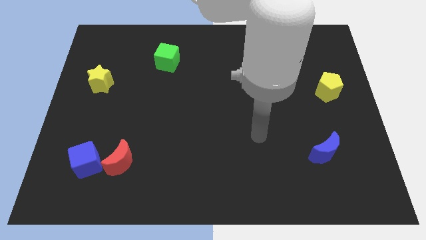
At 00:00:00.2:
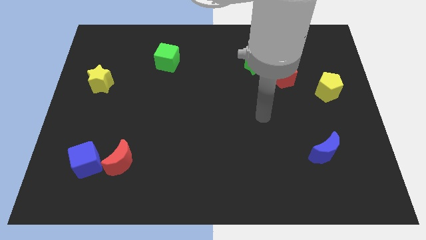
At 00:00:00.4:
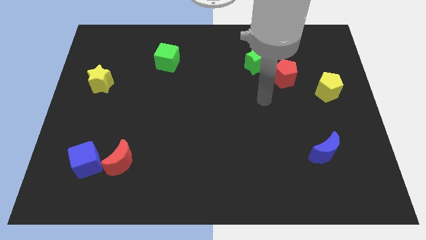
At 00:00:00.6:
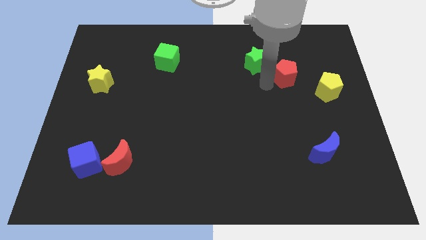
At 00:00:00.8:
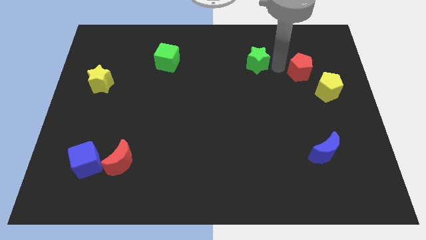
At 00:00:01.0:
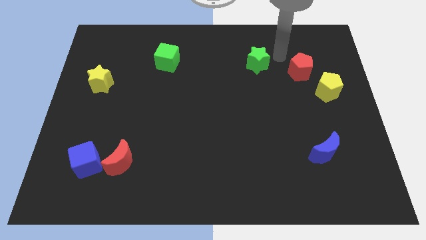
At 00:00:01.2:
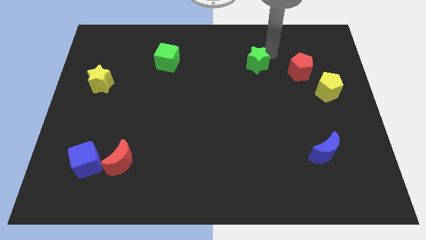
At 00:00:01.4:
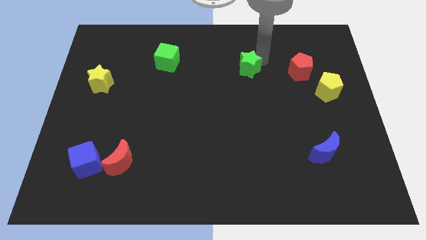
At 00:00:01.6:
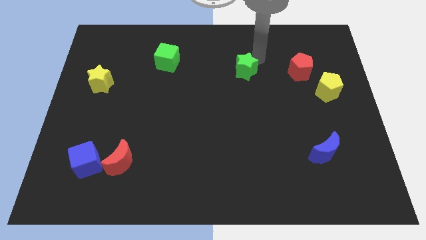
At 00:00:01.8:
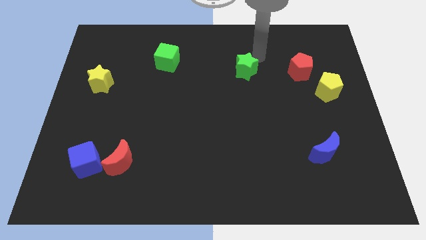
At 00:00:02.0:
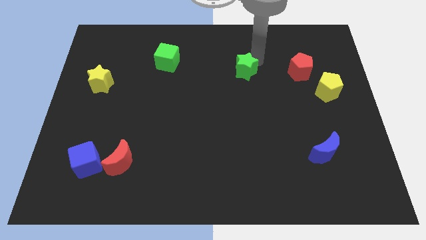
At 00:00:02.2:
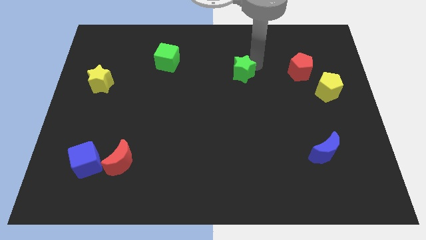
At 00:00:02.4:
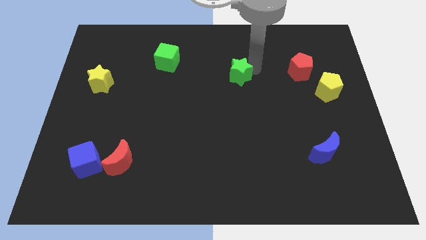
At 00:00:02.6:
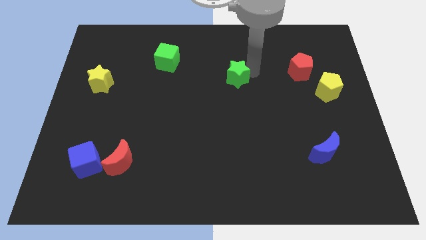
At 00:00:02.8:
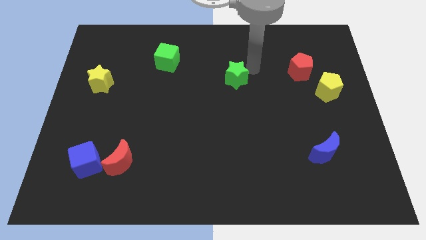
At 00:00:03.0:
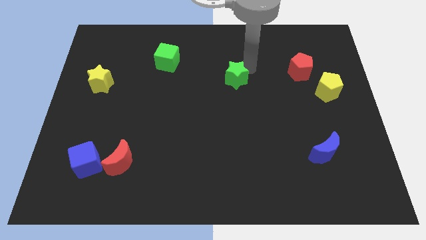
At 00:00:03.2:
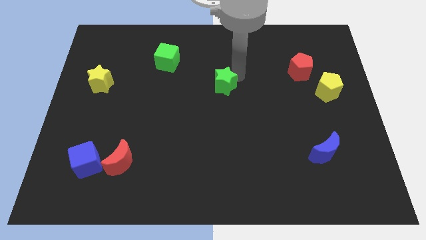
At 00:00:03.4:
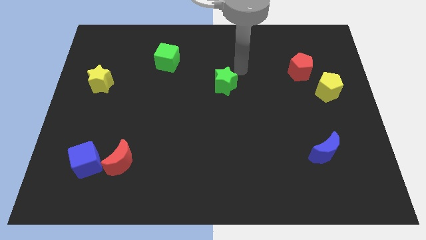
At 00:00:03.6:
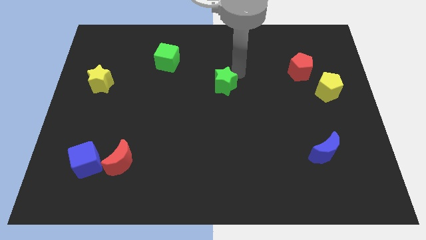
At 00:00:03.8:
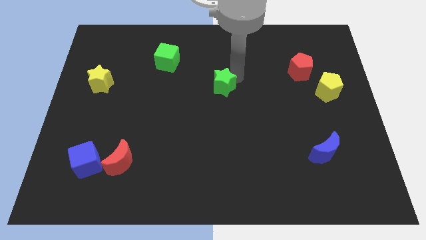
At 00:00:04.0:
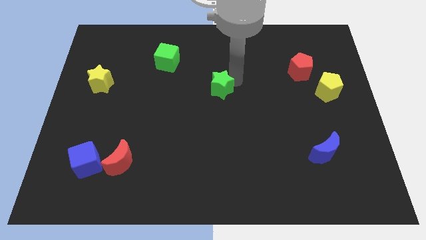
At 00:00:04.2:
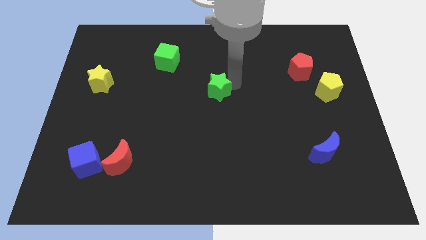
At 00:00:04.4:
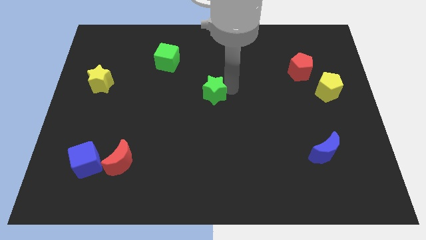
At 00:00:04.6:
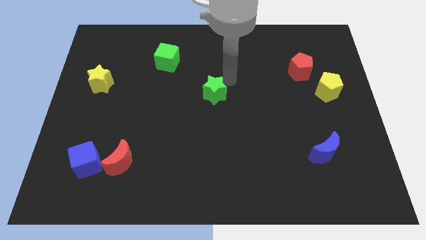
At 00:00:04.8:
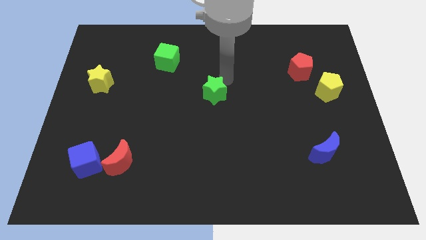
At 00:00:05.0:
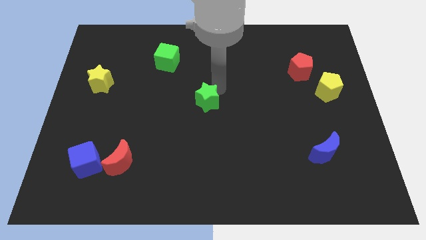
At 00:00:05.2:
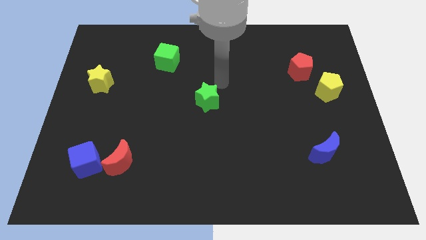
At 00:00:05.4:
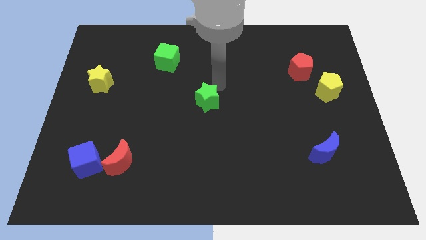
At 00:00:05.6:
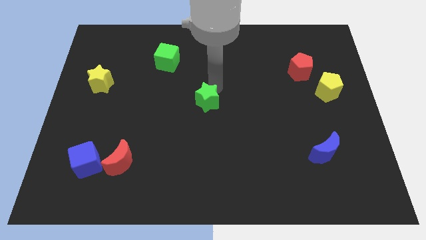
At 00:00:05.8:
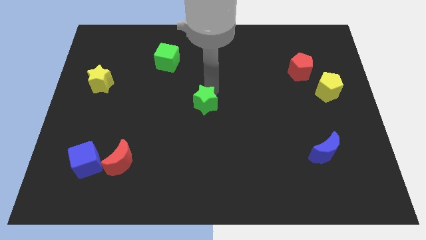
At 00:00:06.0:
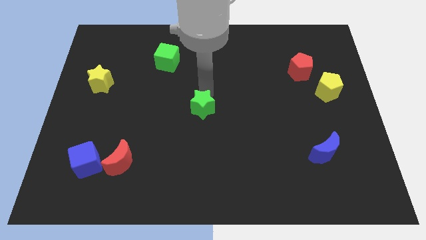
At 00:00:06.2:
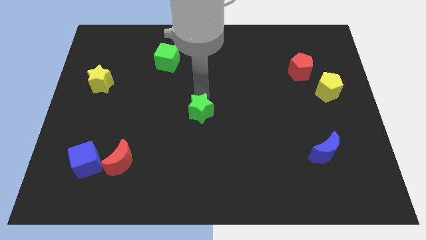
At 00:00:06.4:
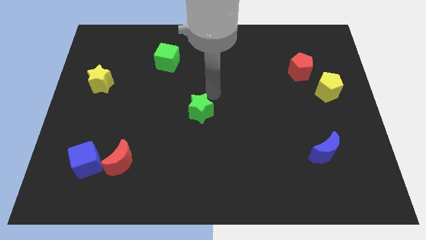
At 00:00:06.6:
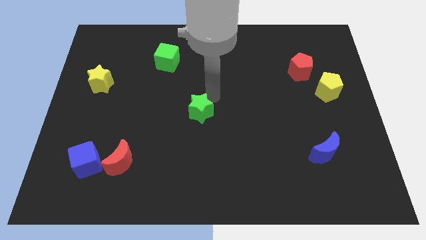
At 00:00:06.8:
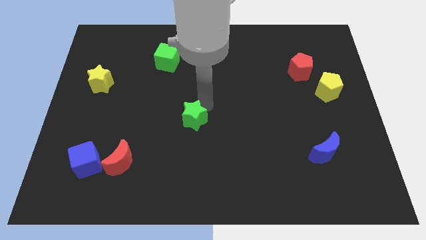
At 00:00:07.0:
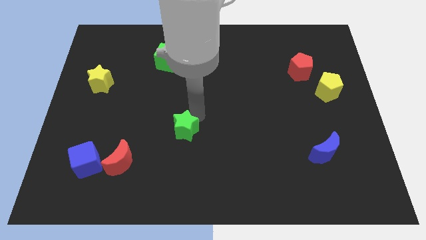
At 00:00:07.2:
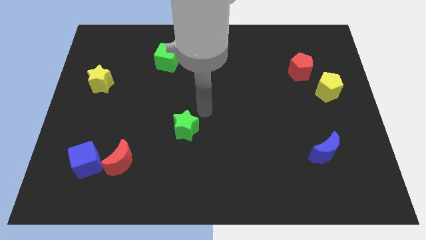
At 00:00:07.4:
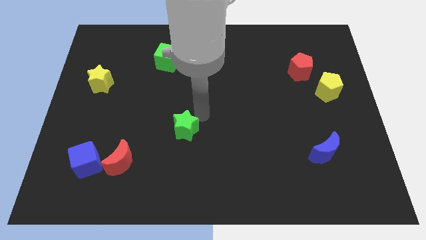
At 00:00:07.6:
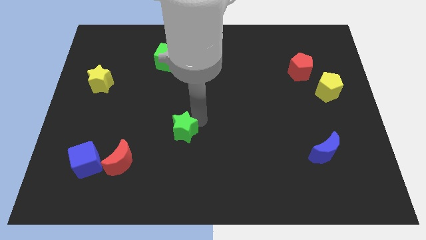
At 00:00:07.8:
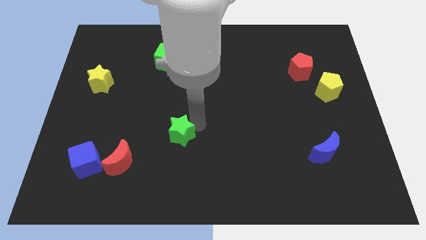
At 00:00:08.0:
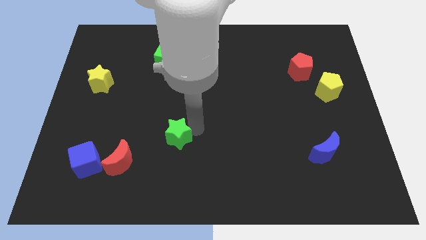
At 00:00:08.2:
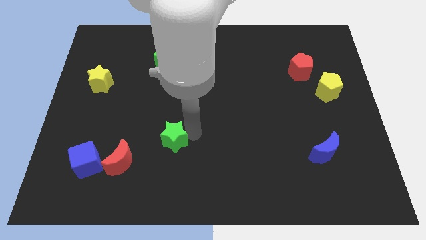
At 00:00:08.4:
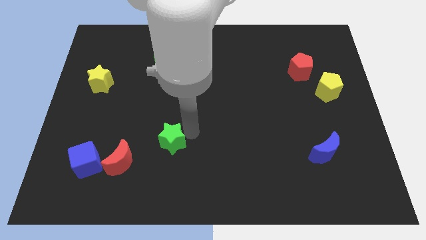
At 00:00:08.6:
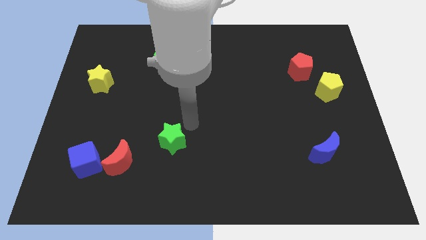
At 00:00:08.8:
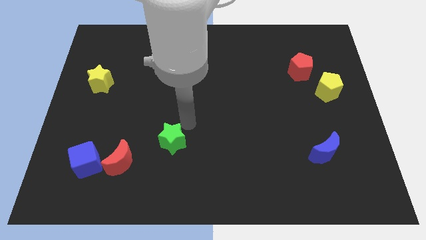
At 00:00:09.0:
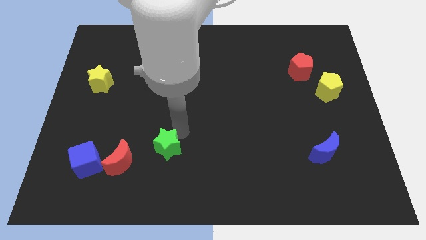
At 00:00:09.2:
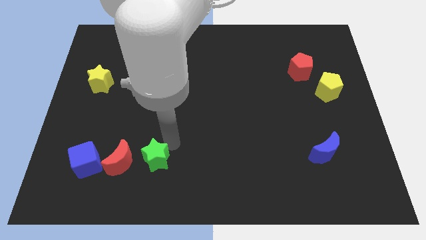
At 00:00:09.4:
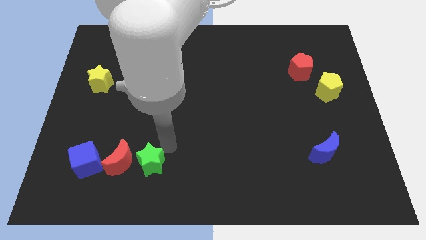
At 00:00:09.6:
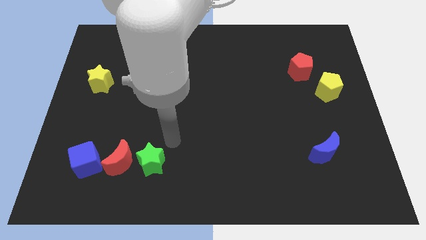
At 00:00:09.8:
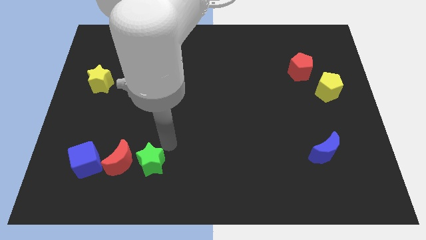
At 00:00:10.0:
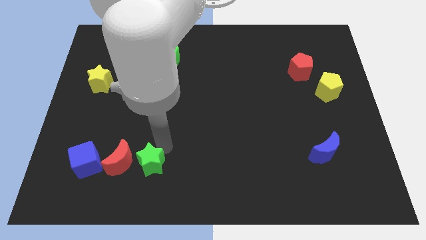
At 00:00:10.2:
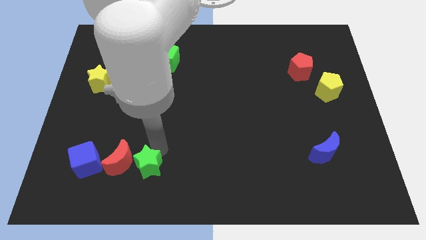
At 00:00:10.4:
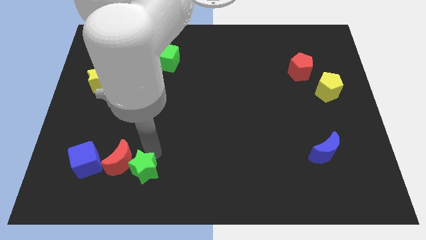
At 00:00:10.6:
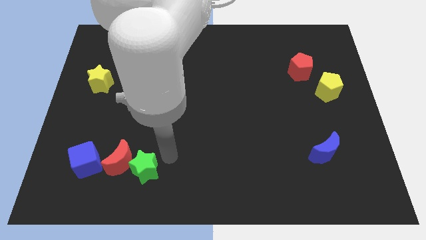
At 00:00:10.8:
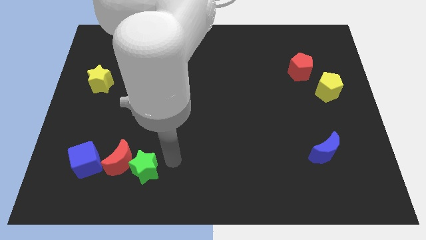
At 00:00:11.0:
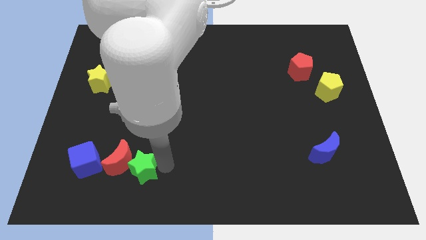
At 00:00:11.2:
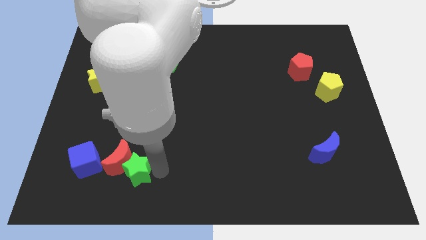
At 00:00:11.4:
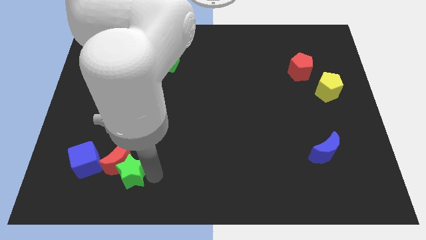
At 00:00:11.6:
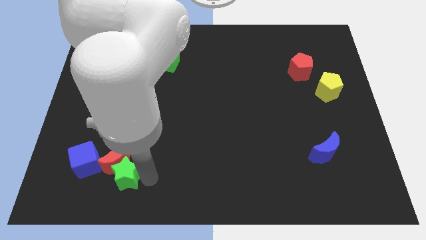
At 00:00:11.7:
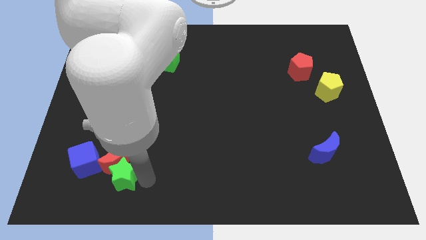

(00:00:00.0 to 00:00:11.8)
move the green star to the bottom left side of the red moon

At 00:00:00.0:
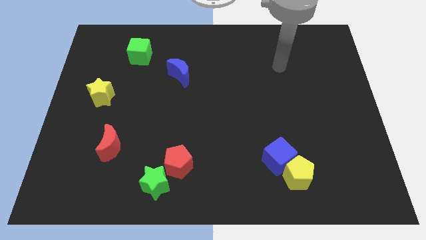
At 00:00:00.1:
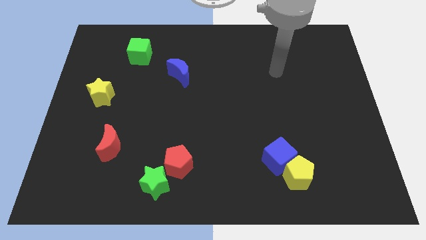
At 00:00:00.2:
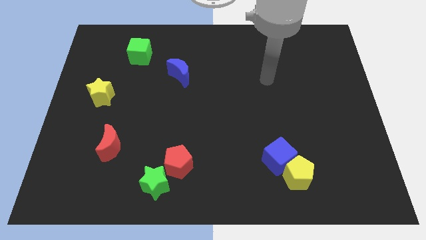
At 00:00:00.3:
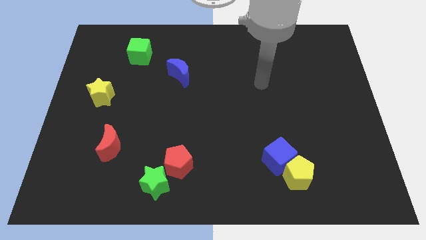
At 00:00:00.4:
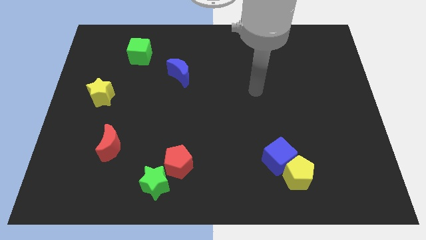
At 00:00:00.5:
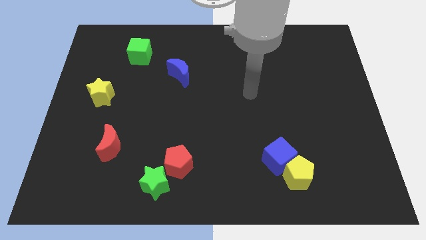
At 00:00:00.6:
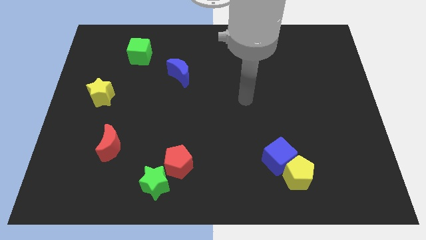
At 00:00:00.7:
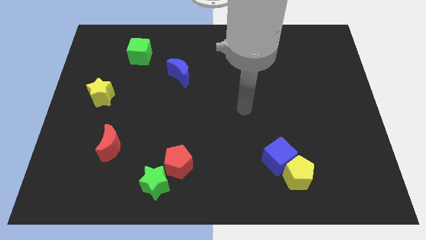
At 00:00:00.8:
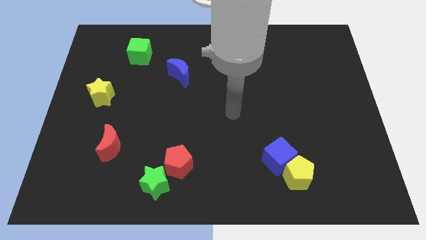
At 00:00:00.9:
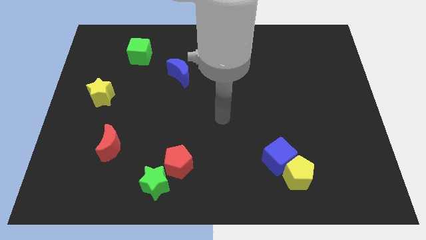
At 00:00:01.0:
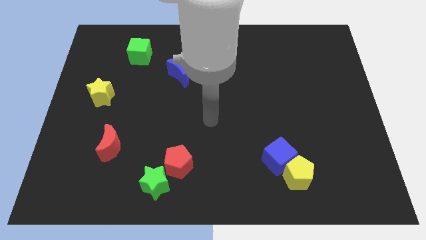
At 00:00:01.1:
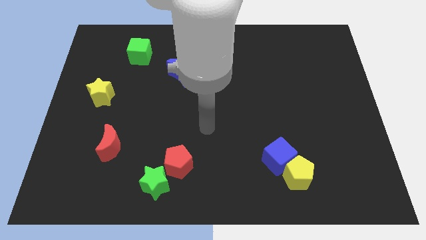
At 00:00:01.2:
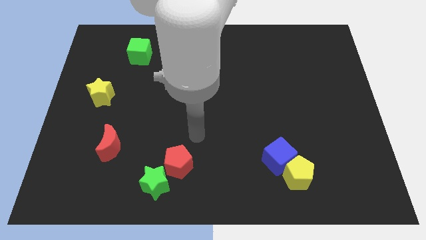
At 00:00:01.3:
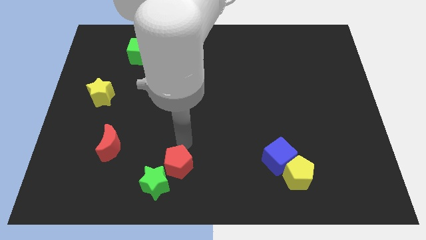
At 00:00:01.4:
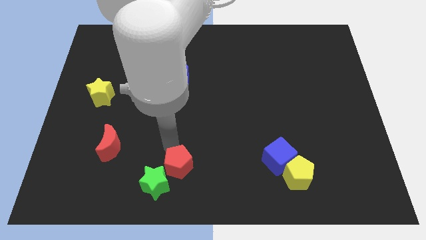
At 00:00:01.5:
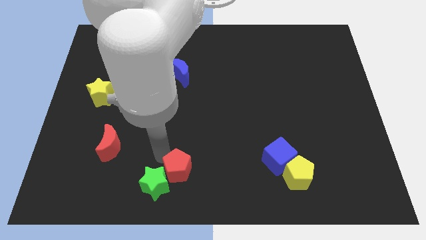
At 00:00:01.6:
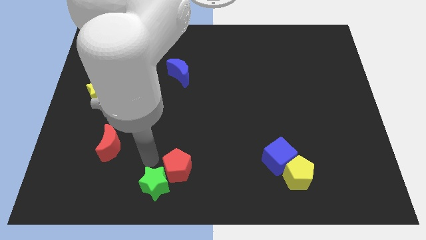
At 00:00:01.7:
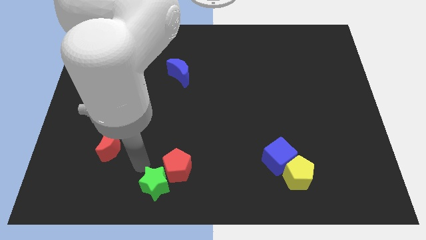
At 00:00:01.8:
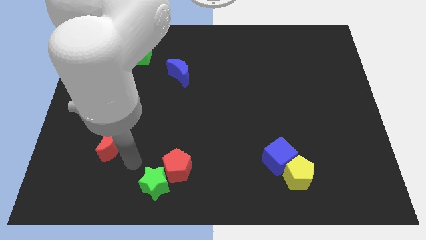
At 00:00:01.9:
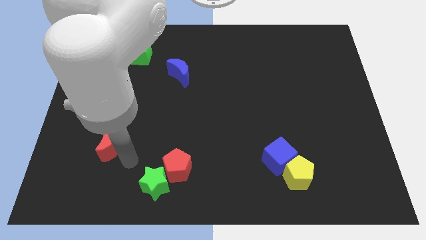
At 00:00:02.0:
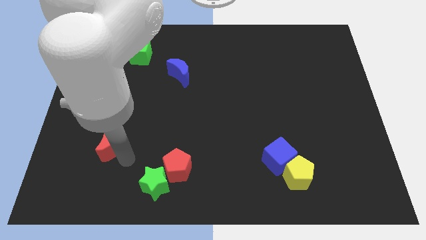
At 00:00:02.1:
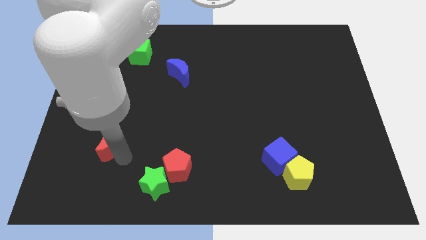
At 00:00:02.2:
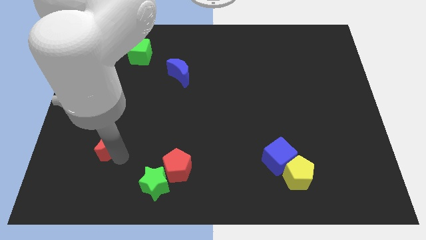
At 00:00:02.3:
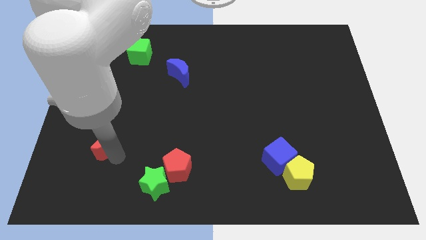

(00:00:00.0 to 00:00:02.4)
slide the red moon to the bottom side of the yellow star
